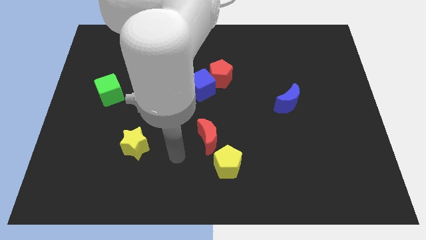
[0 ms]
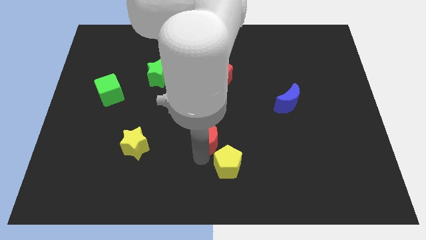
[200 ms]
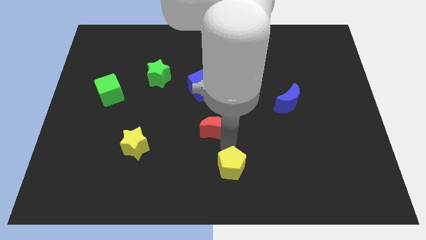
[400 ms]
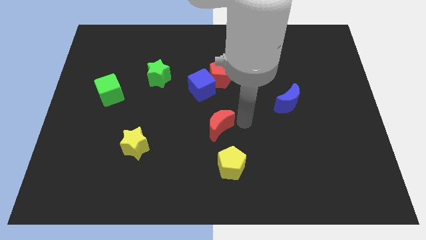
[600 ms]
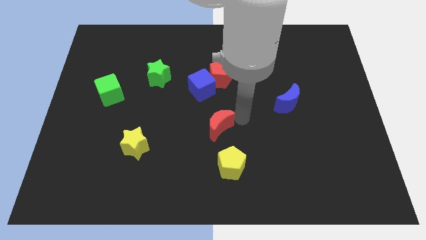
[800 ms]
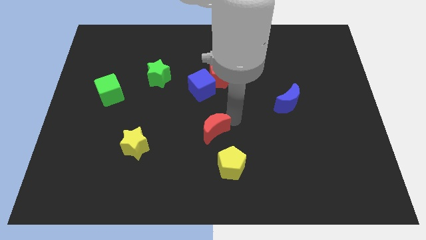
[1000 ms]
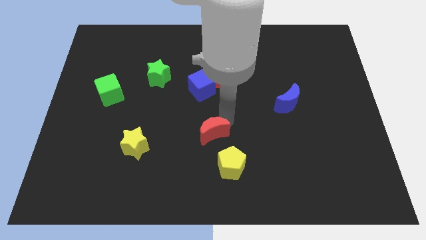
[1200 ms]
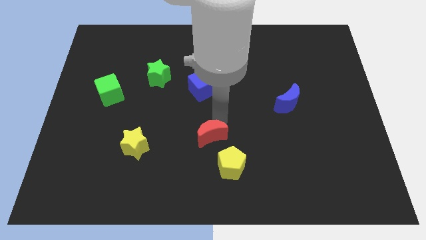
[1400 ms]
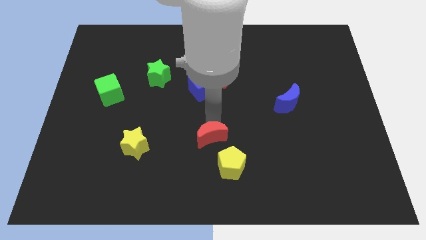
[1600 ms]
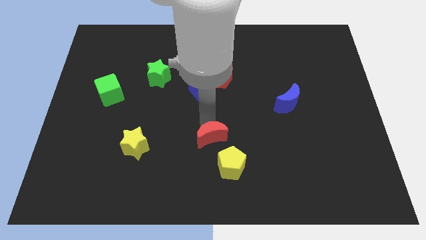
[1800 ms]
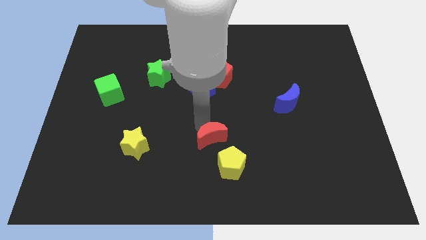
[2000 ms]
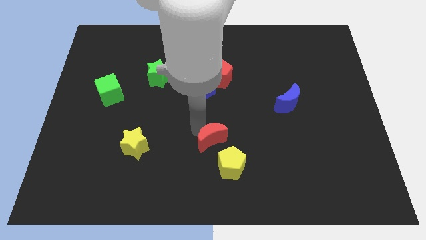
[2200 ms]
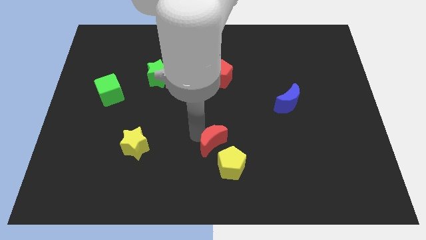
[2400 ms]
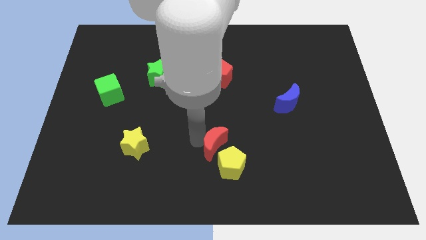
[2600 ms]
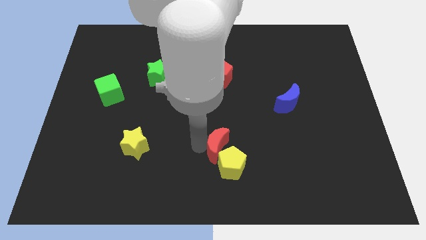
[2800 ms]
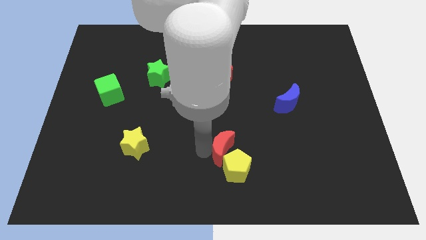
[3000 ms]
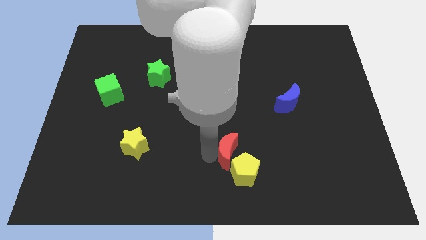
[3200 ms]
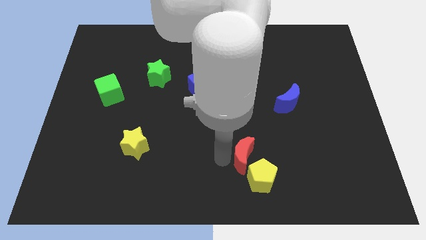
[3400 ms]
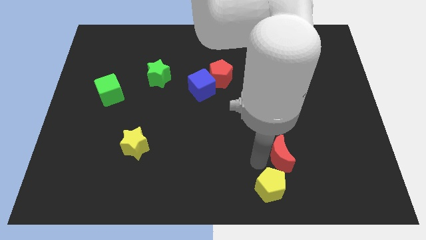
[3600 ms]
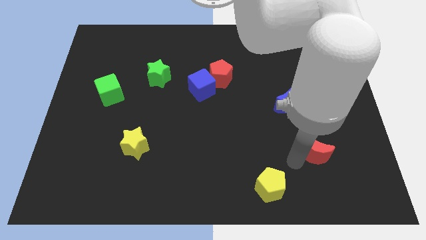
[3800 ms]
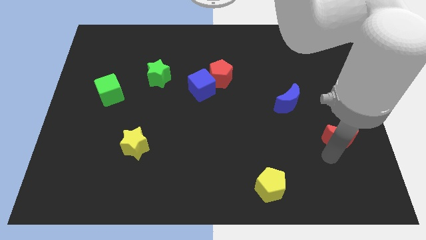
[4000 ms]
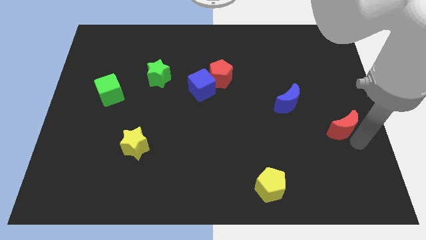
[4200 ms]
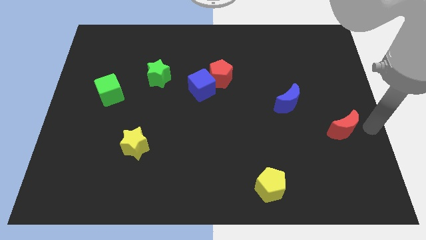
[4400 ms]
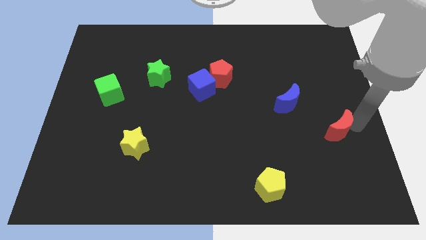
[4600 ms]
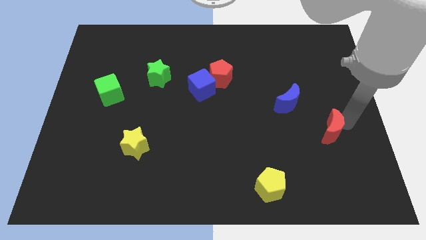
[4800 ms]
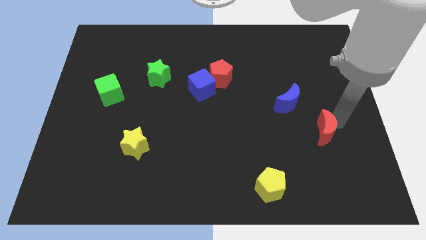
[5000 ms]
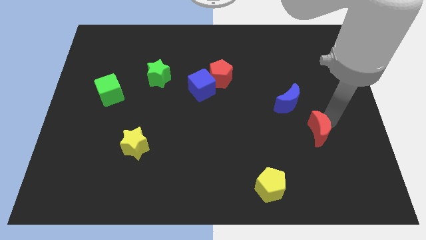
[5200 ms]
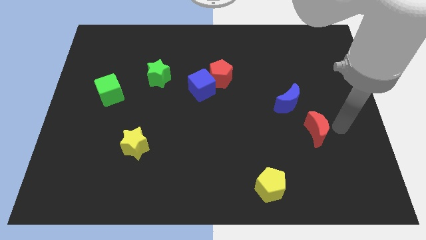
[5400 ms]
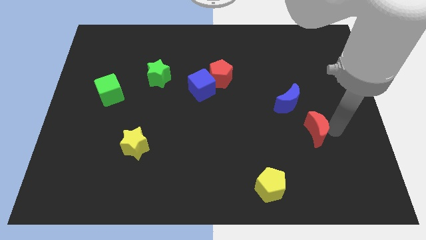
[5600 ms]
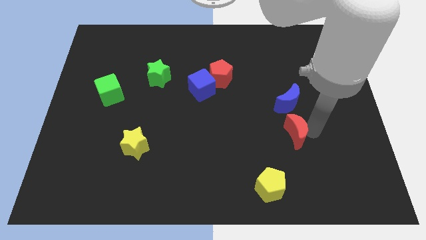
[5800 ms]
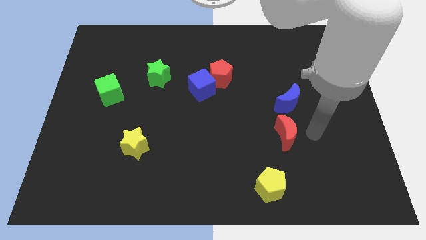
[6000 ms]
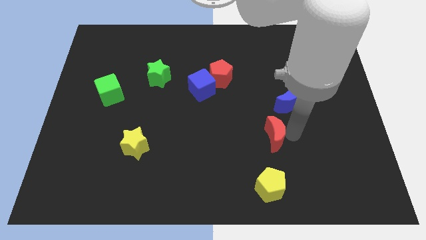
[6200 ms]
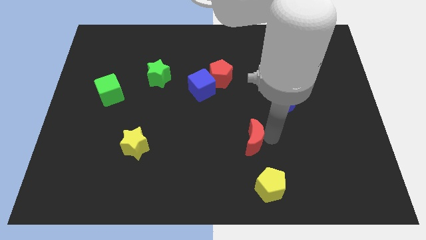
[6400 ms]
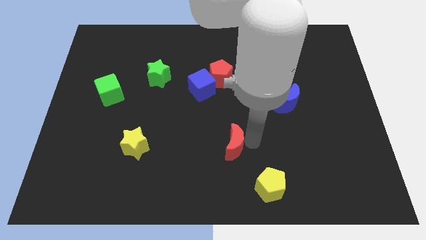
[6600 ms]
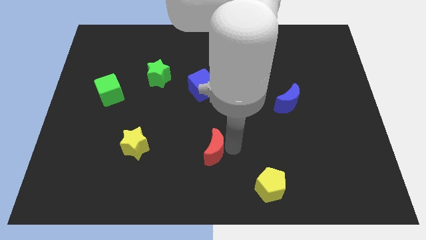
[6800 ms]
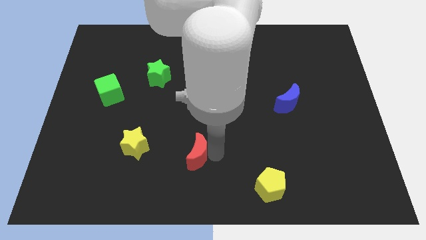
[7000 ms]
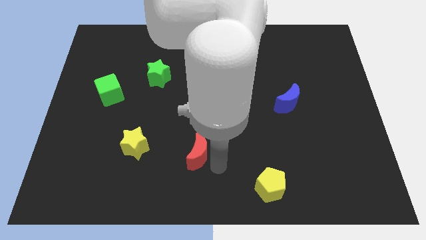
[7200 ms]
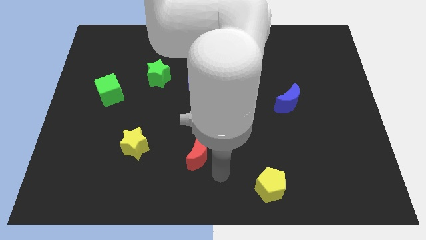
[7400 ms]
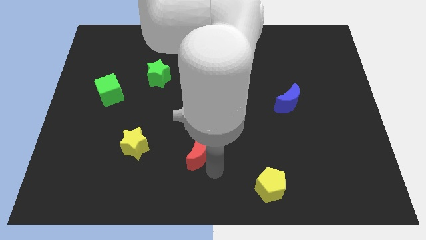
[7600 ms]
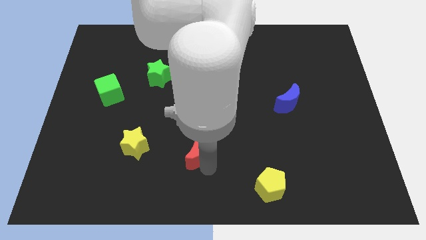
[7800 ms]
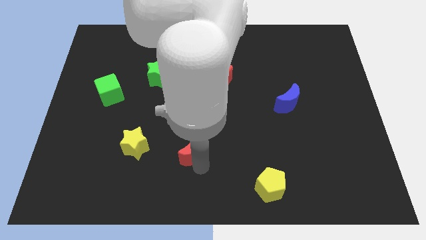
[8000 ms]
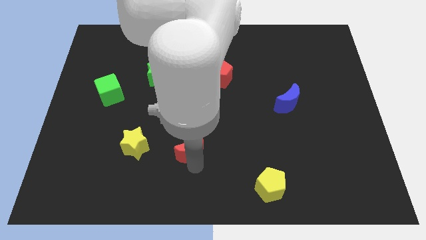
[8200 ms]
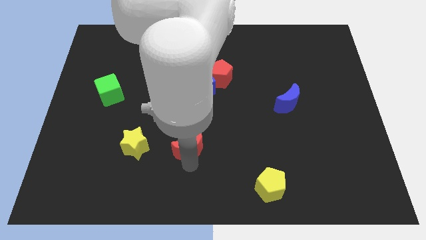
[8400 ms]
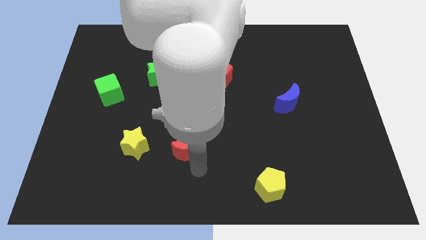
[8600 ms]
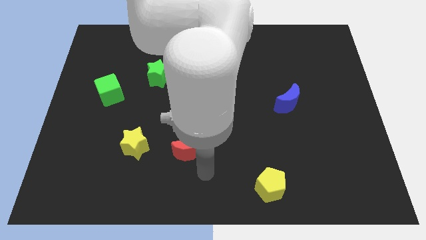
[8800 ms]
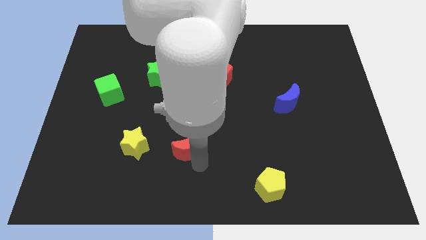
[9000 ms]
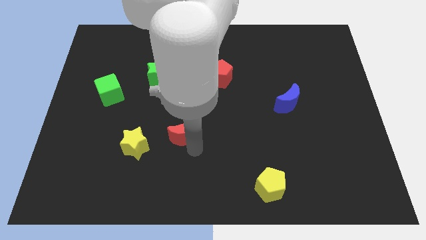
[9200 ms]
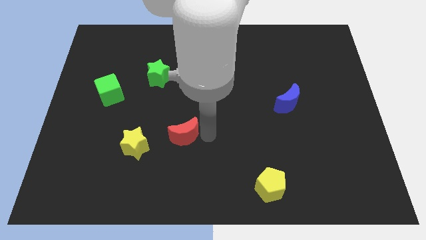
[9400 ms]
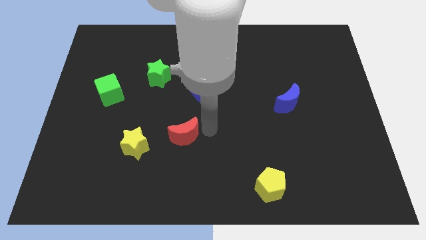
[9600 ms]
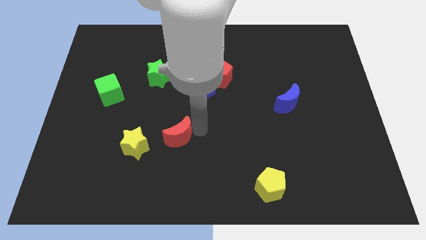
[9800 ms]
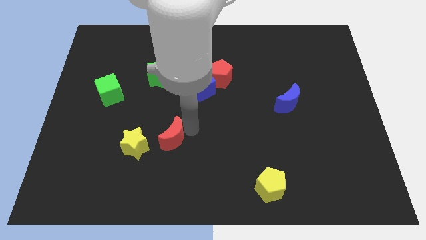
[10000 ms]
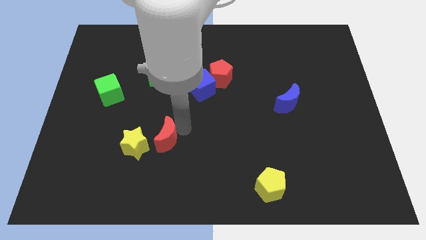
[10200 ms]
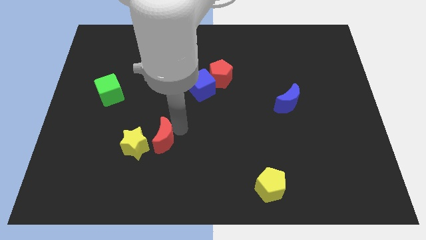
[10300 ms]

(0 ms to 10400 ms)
put the red moon towards the yellow star

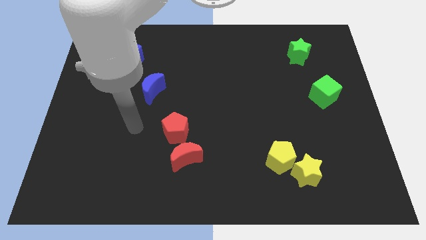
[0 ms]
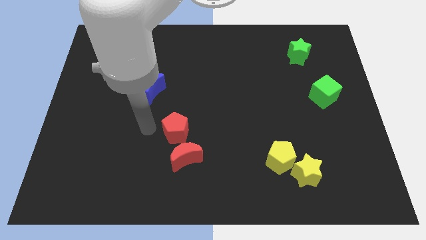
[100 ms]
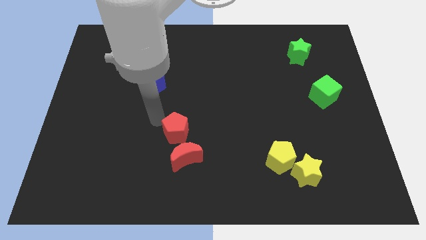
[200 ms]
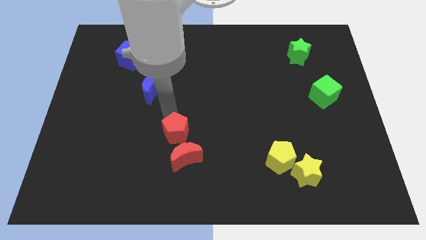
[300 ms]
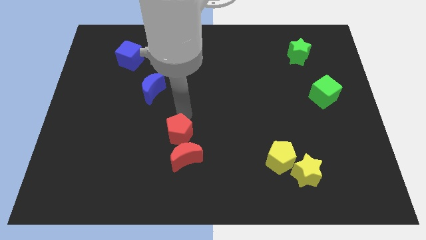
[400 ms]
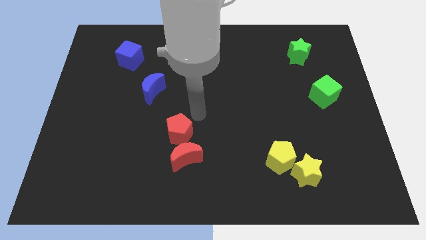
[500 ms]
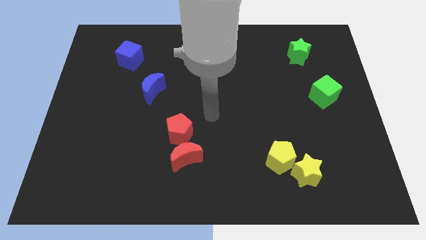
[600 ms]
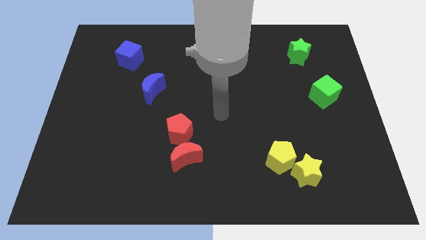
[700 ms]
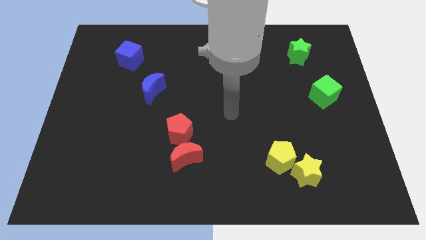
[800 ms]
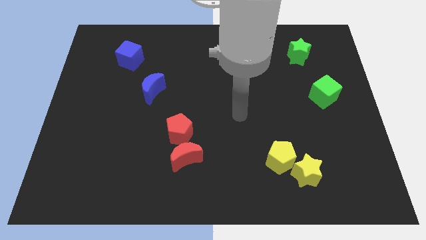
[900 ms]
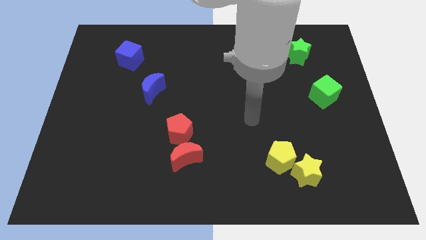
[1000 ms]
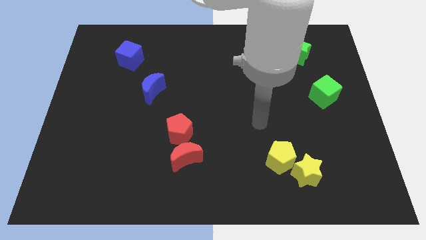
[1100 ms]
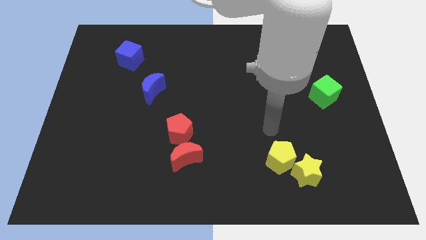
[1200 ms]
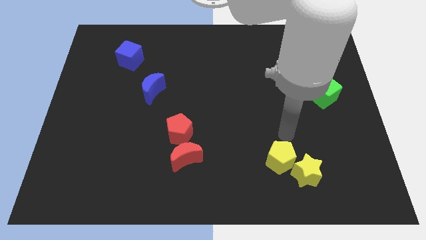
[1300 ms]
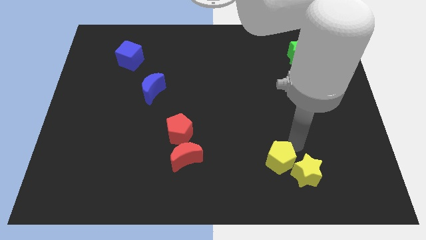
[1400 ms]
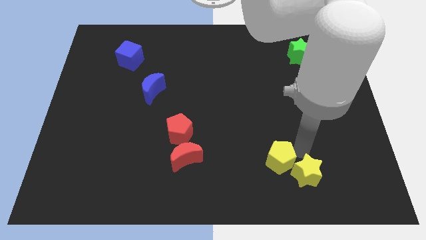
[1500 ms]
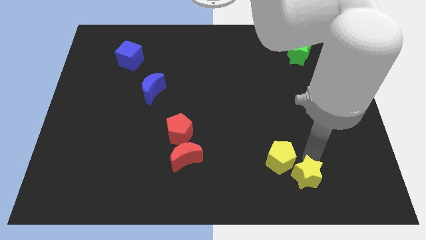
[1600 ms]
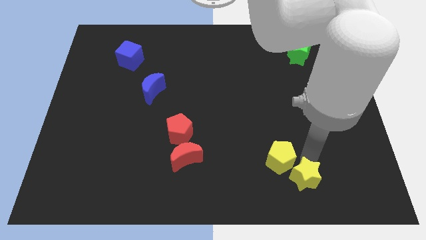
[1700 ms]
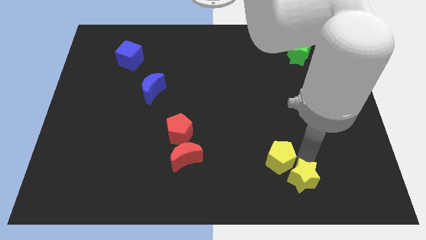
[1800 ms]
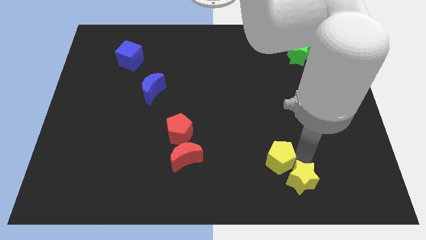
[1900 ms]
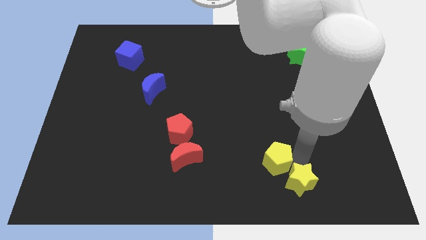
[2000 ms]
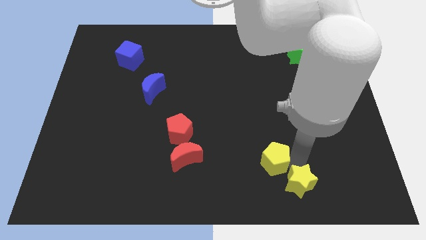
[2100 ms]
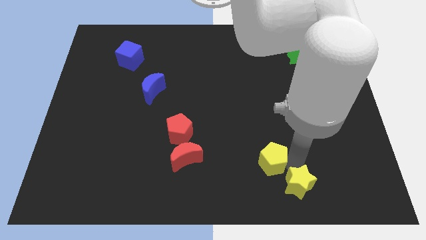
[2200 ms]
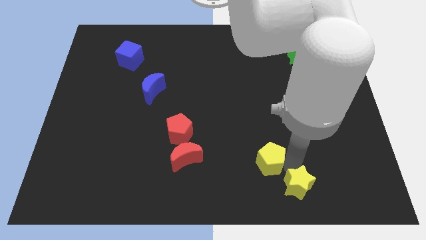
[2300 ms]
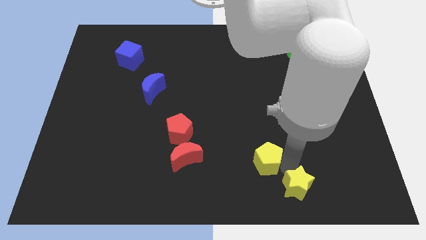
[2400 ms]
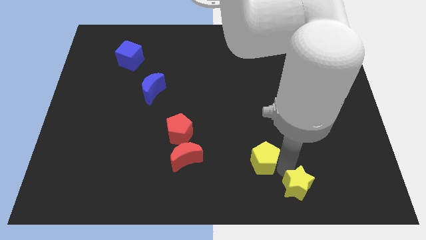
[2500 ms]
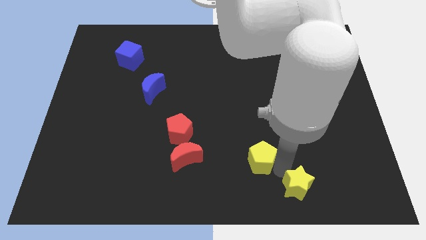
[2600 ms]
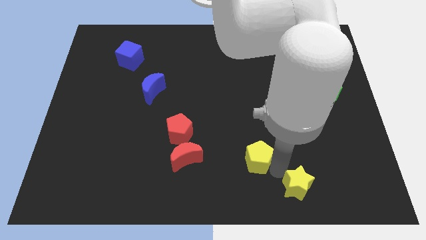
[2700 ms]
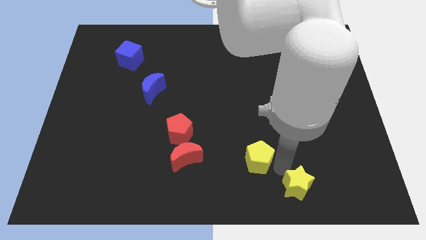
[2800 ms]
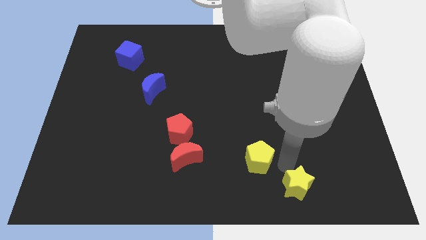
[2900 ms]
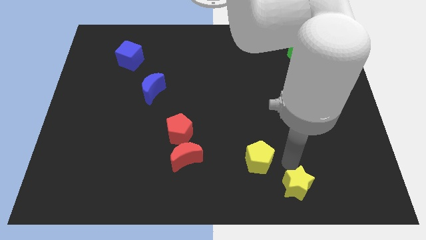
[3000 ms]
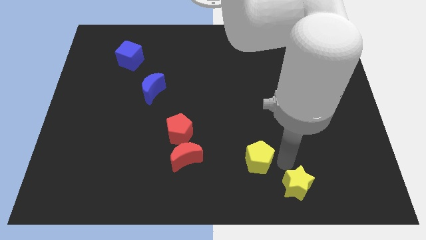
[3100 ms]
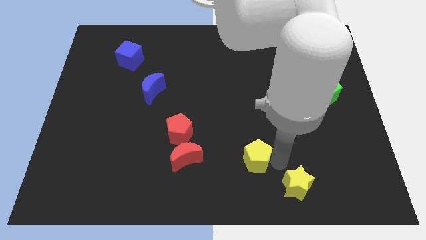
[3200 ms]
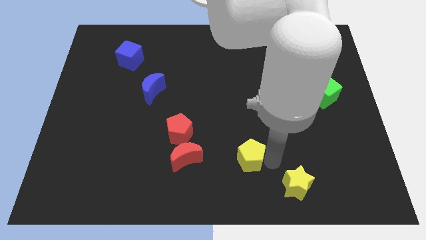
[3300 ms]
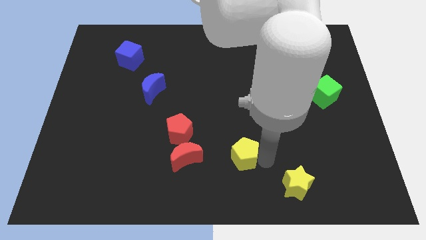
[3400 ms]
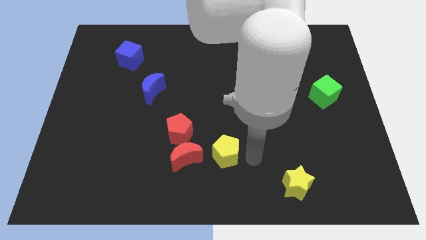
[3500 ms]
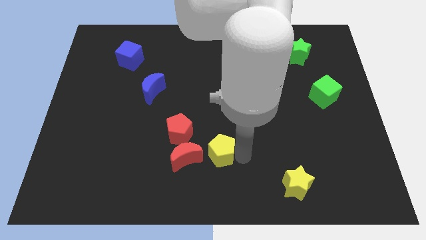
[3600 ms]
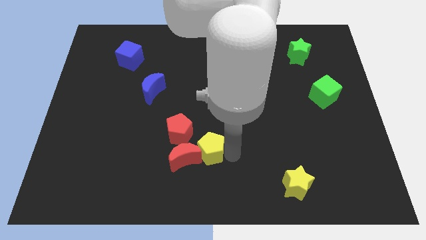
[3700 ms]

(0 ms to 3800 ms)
push the yellow pentagon close to the red moon
